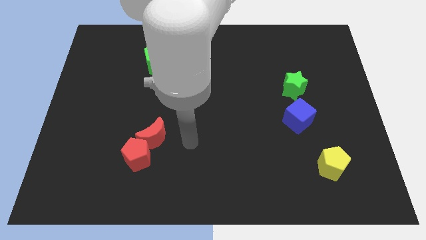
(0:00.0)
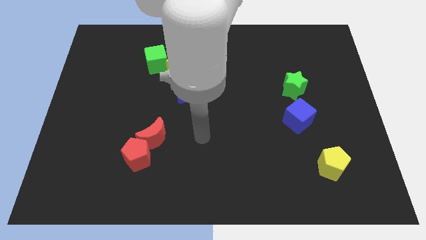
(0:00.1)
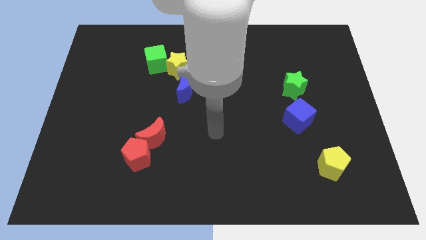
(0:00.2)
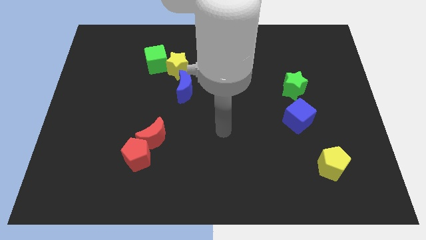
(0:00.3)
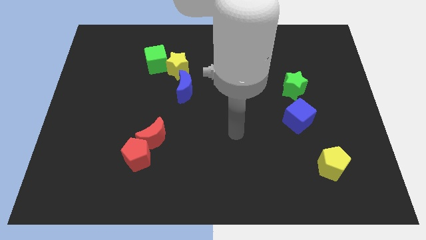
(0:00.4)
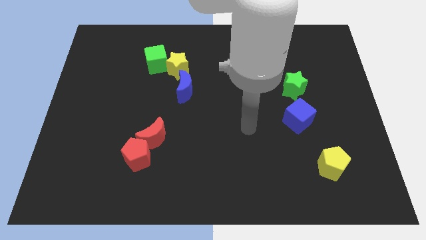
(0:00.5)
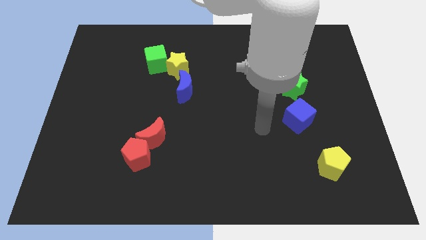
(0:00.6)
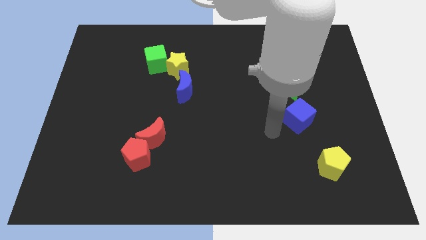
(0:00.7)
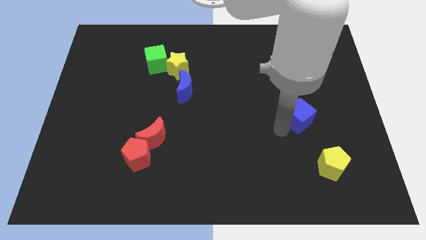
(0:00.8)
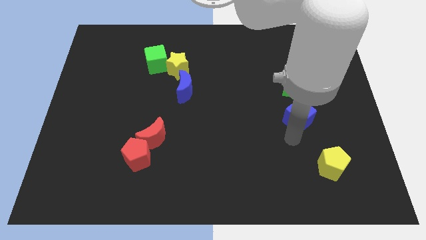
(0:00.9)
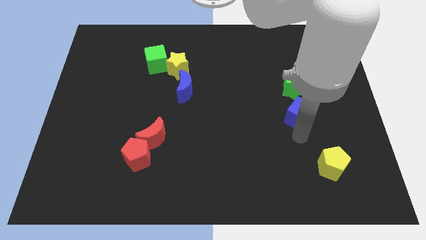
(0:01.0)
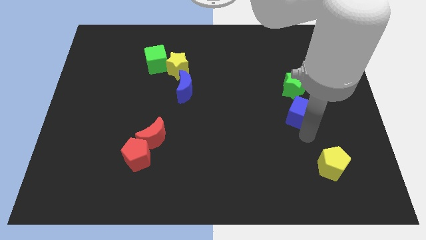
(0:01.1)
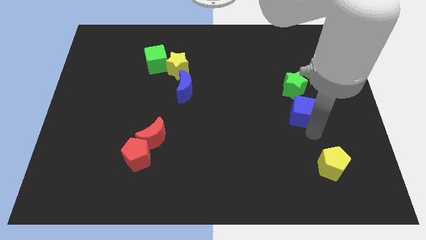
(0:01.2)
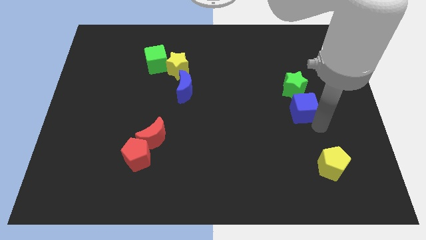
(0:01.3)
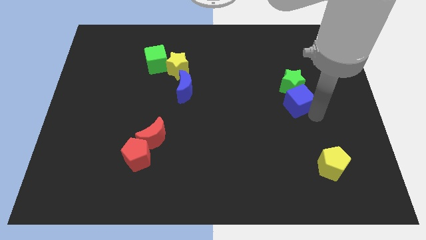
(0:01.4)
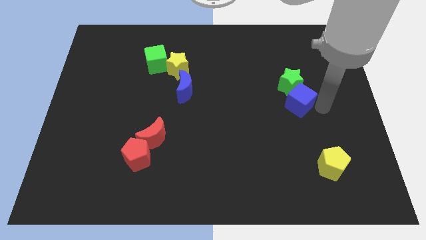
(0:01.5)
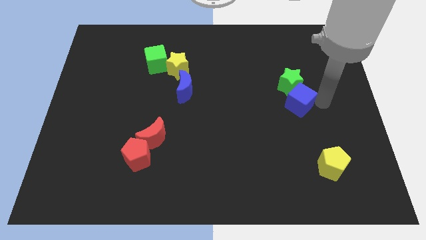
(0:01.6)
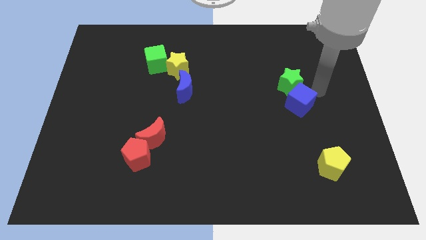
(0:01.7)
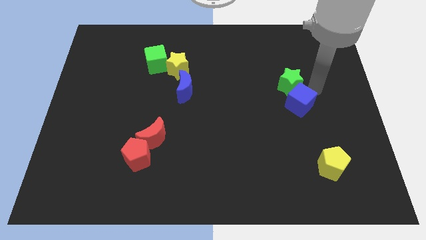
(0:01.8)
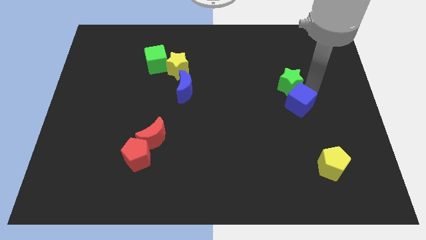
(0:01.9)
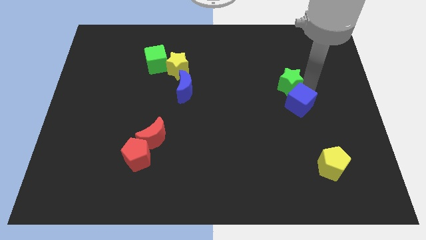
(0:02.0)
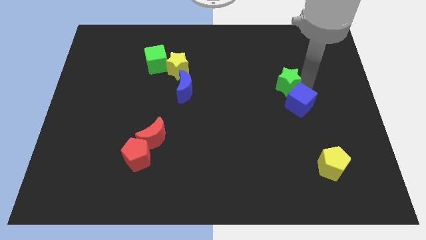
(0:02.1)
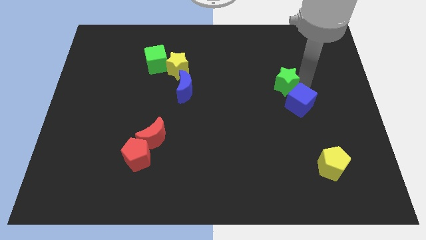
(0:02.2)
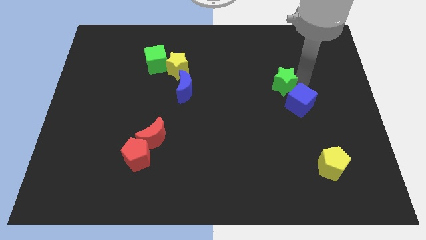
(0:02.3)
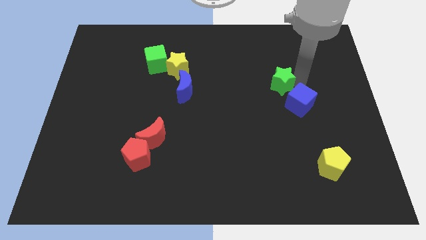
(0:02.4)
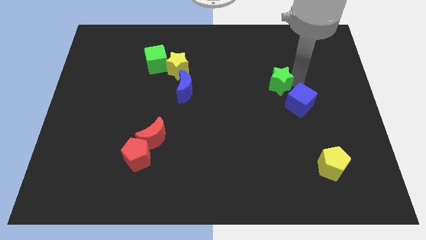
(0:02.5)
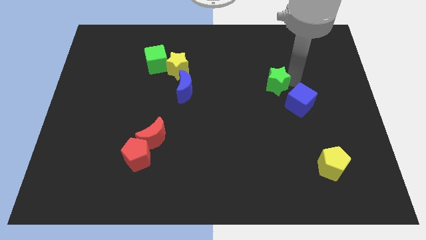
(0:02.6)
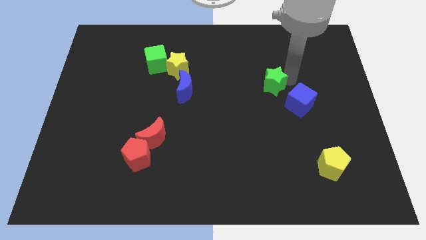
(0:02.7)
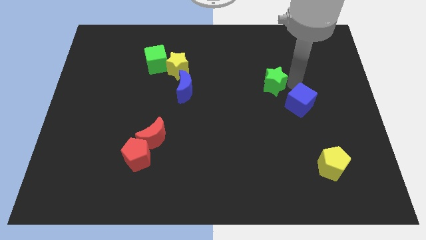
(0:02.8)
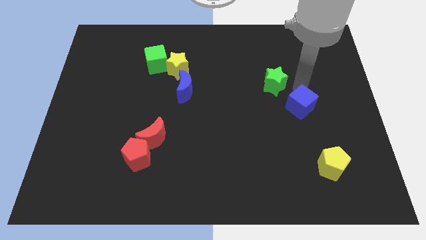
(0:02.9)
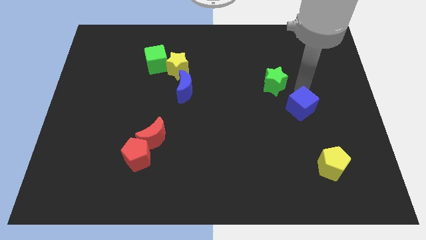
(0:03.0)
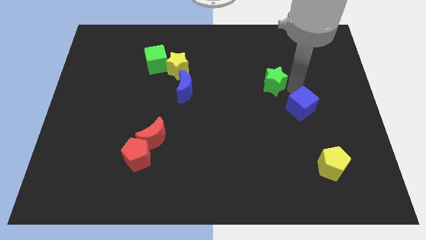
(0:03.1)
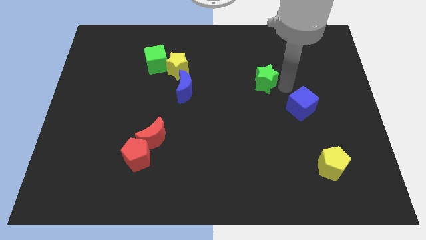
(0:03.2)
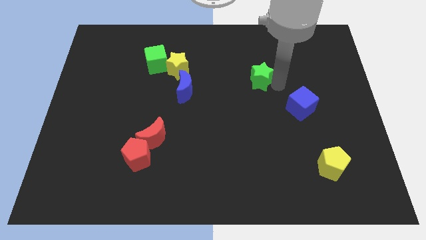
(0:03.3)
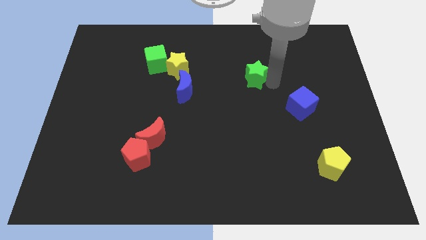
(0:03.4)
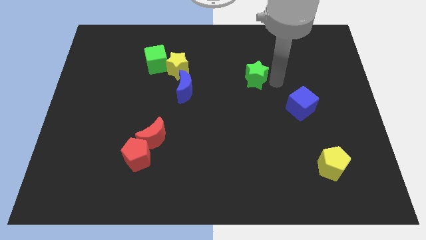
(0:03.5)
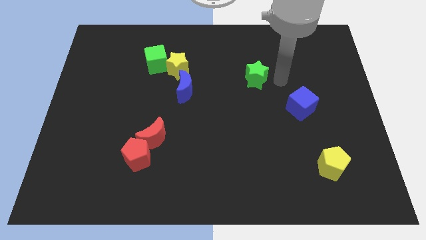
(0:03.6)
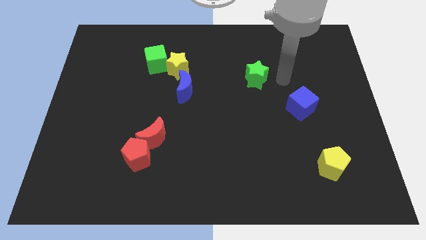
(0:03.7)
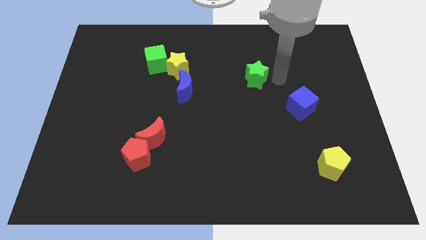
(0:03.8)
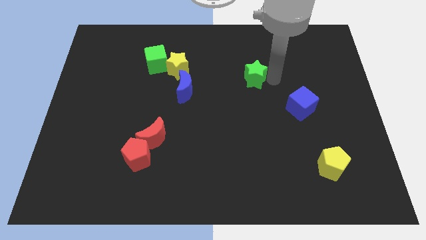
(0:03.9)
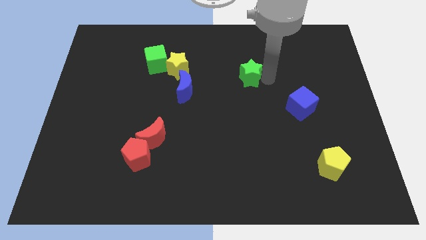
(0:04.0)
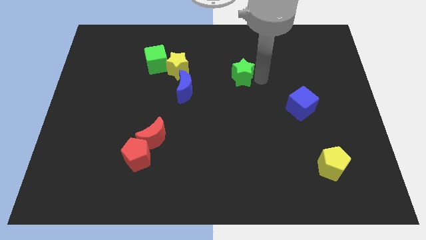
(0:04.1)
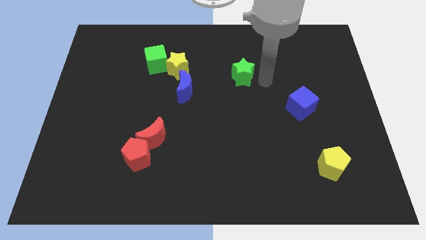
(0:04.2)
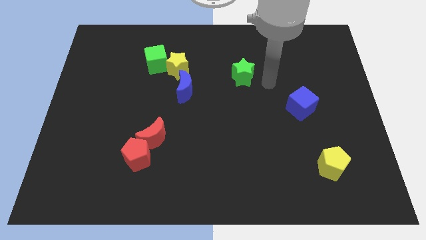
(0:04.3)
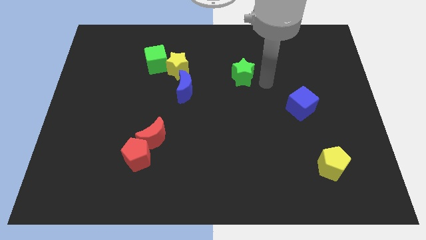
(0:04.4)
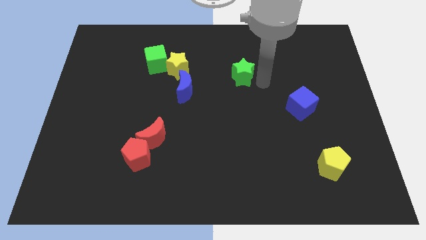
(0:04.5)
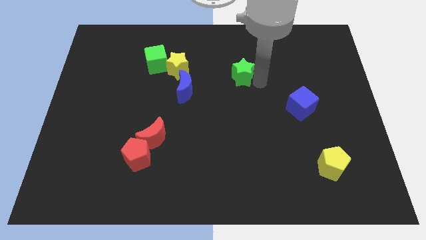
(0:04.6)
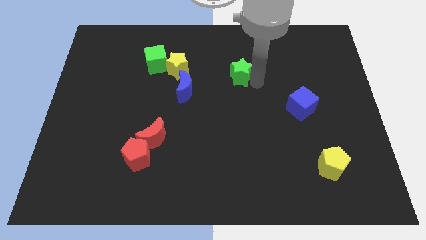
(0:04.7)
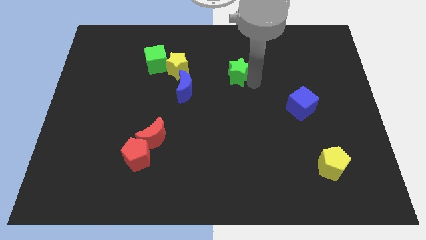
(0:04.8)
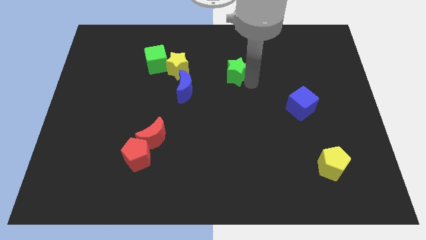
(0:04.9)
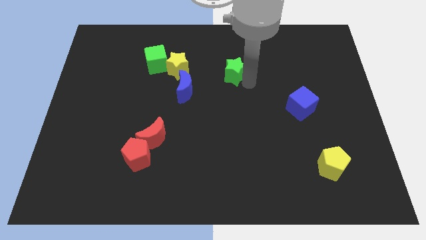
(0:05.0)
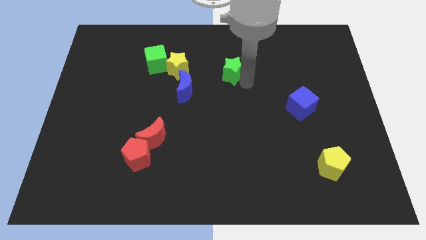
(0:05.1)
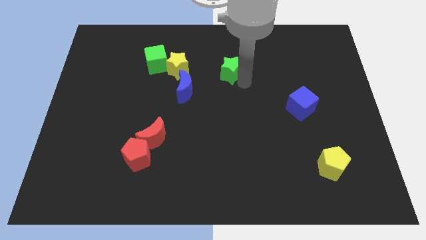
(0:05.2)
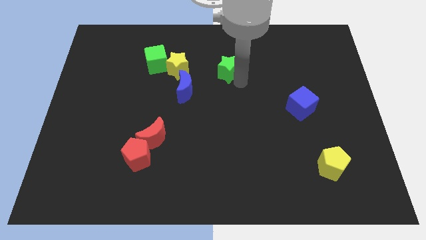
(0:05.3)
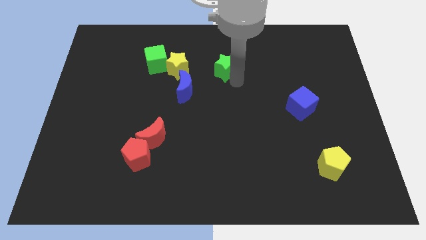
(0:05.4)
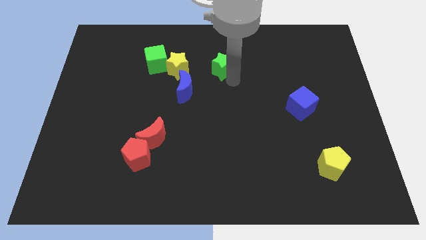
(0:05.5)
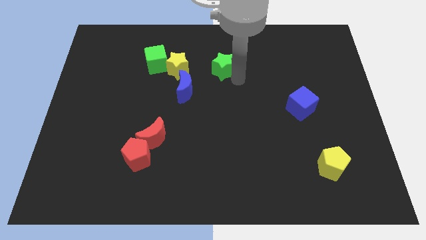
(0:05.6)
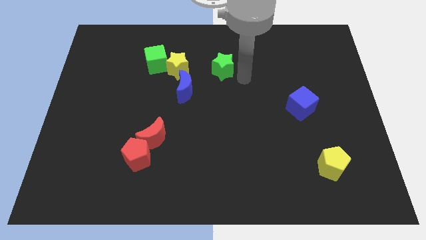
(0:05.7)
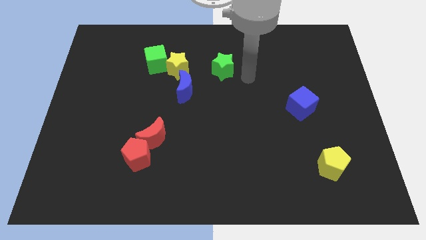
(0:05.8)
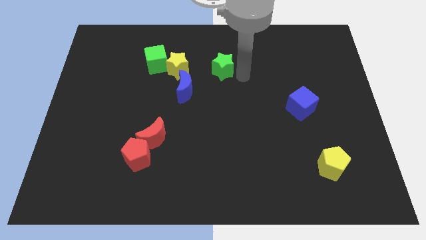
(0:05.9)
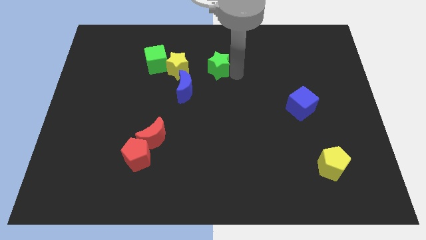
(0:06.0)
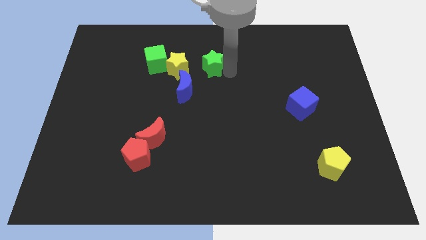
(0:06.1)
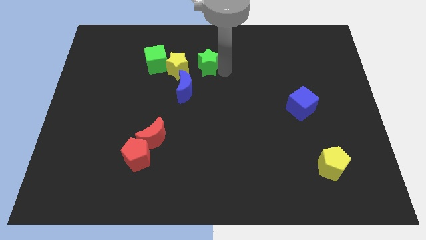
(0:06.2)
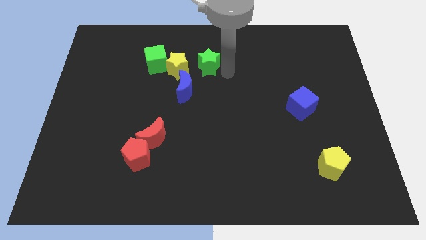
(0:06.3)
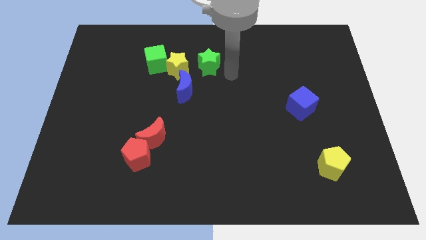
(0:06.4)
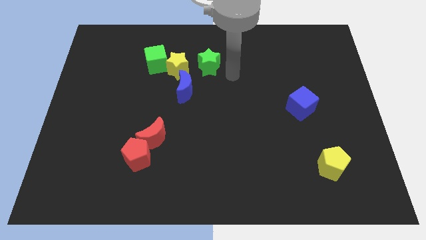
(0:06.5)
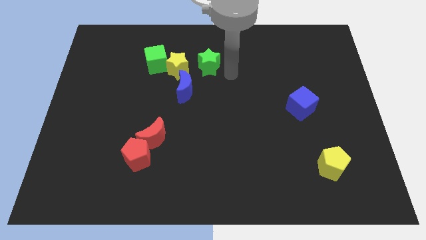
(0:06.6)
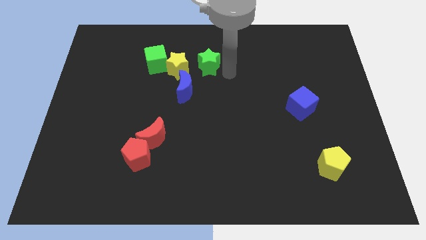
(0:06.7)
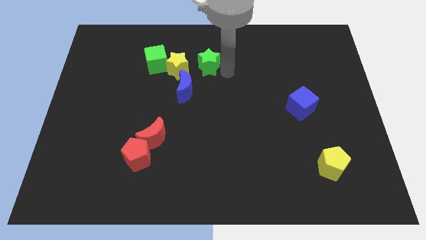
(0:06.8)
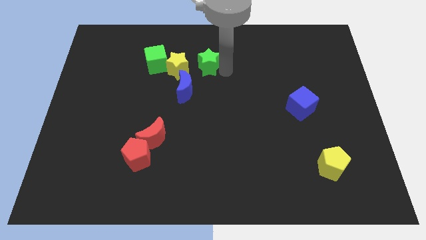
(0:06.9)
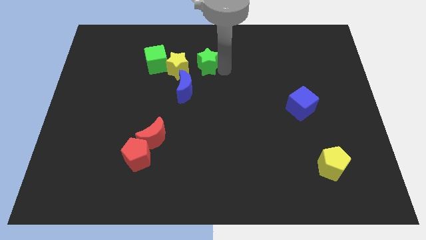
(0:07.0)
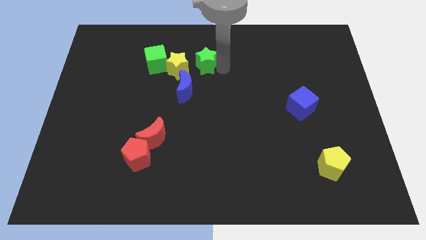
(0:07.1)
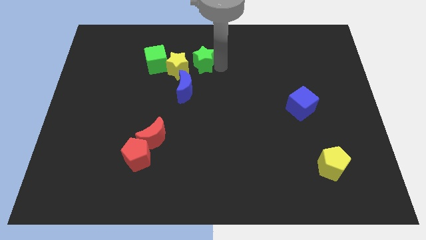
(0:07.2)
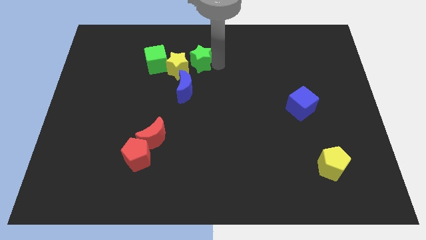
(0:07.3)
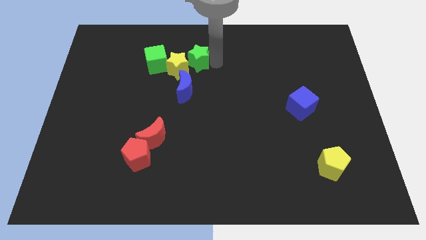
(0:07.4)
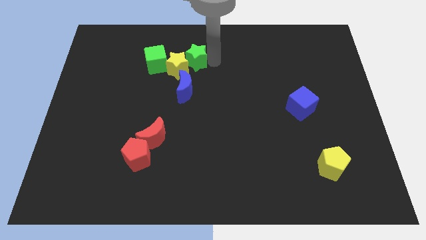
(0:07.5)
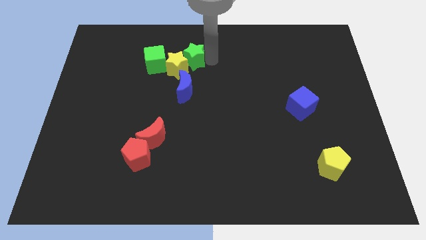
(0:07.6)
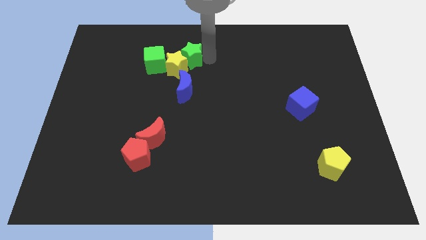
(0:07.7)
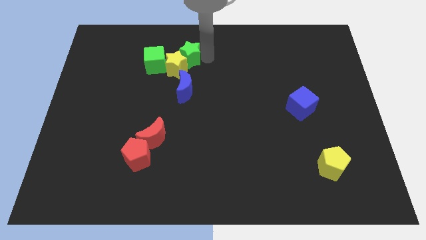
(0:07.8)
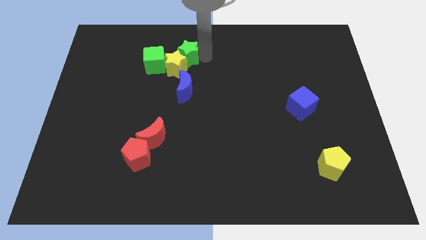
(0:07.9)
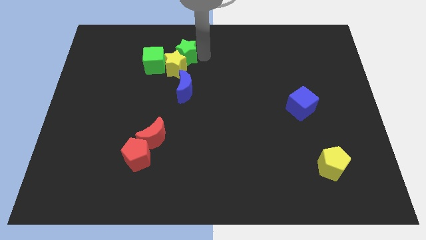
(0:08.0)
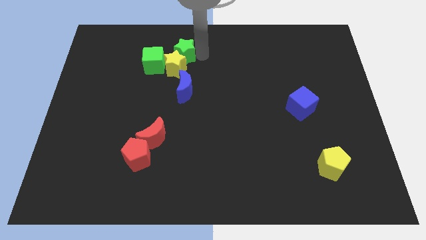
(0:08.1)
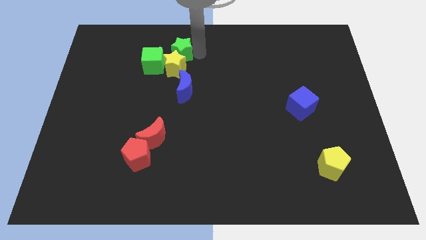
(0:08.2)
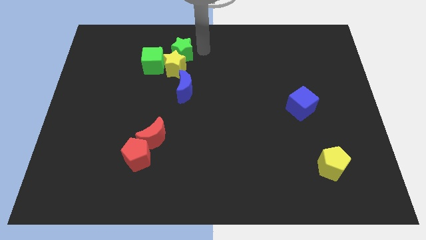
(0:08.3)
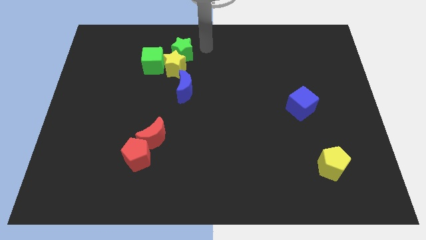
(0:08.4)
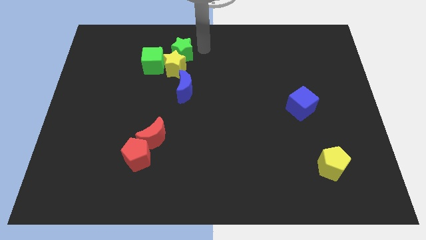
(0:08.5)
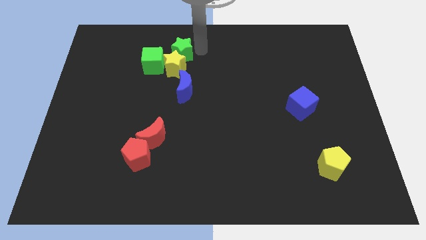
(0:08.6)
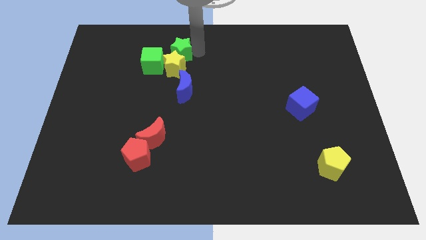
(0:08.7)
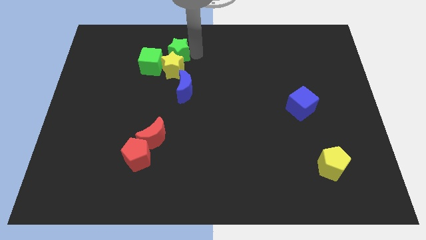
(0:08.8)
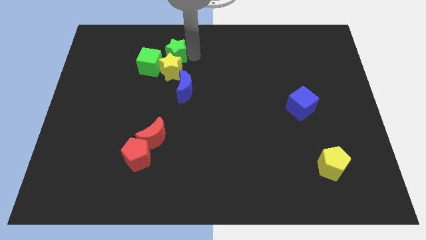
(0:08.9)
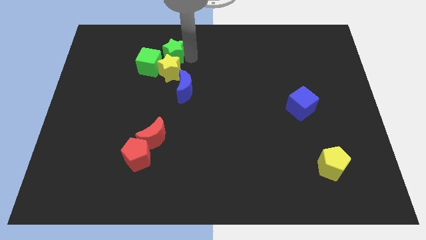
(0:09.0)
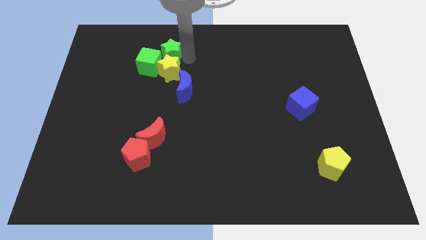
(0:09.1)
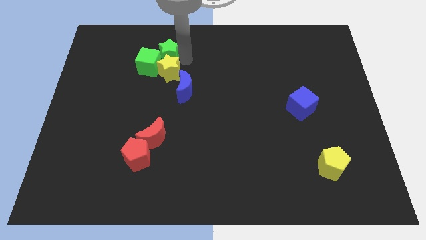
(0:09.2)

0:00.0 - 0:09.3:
put the green star towards the green cube
